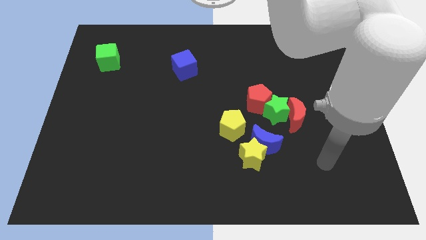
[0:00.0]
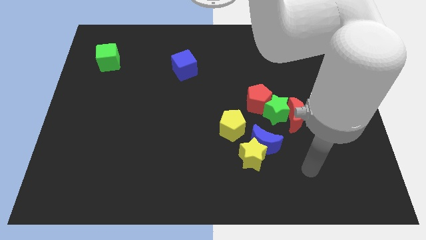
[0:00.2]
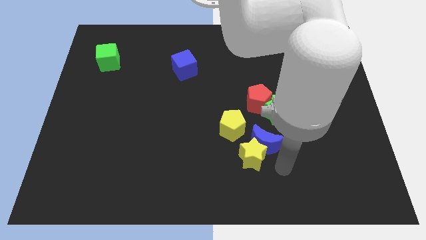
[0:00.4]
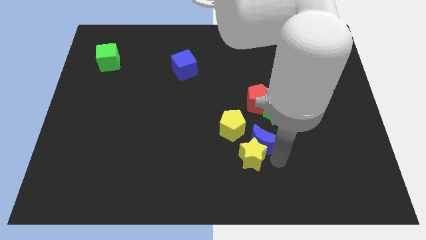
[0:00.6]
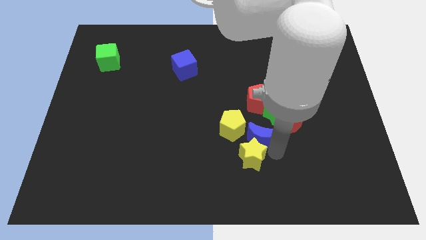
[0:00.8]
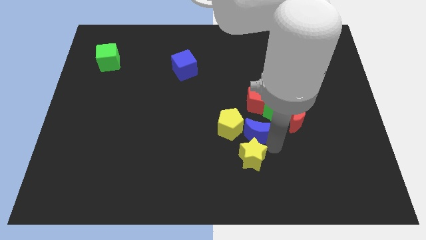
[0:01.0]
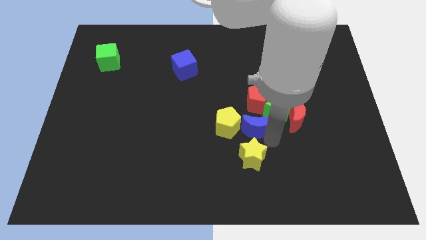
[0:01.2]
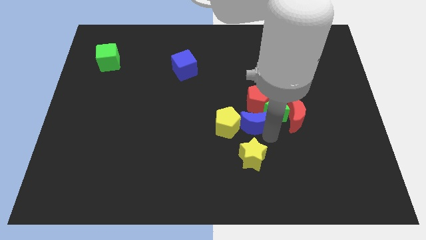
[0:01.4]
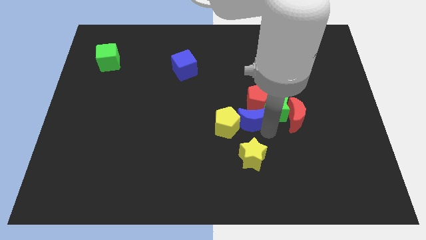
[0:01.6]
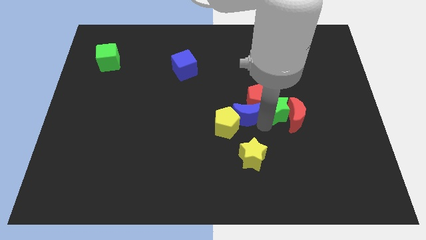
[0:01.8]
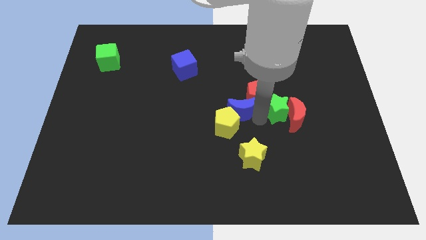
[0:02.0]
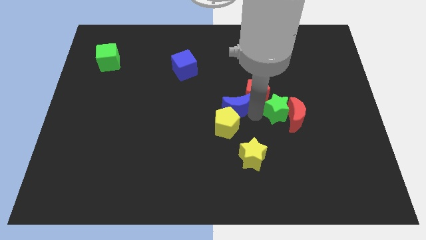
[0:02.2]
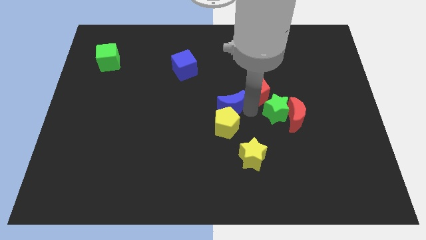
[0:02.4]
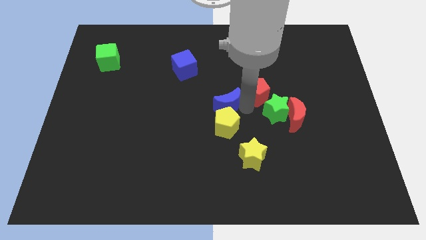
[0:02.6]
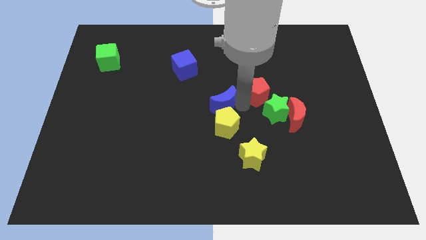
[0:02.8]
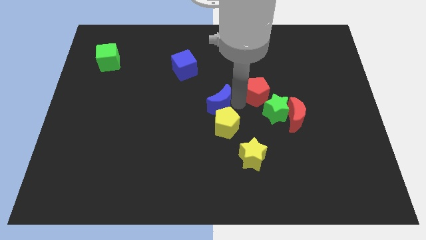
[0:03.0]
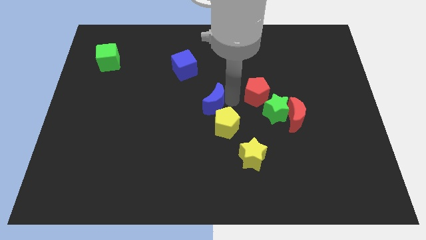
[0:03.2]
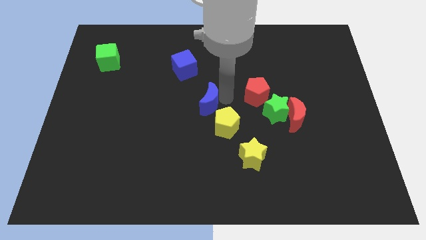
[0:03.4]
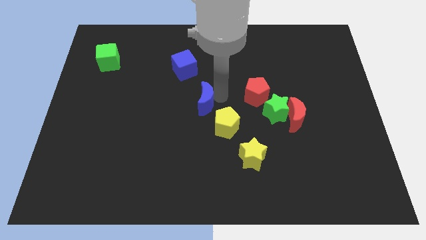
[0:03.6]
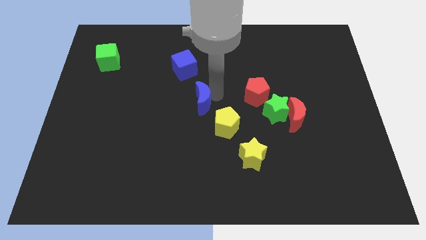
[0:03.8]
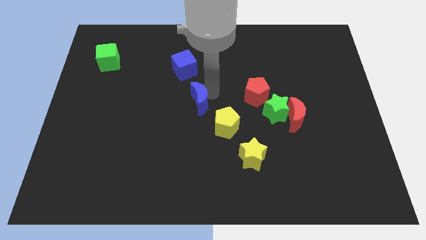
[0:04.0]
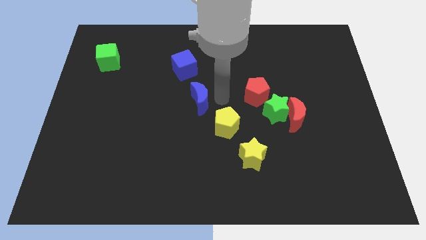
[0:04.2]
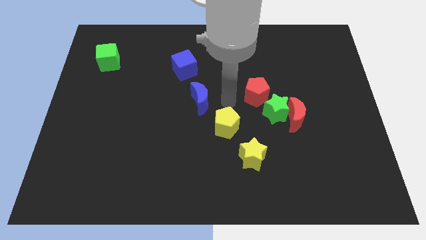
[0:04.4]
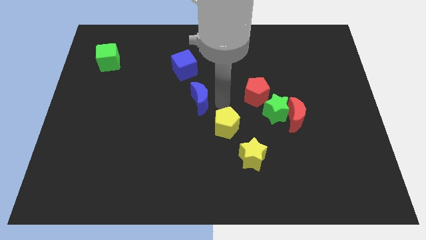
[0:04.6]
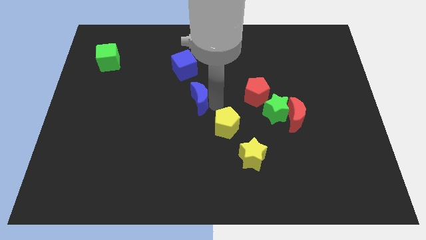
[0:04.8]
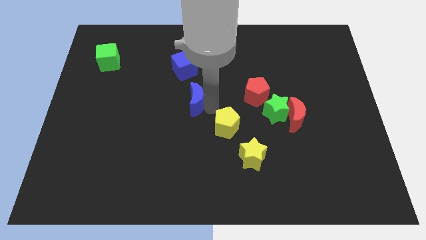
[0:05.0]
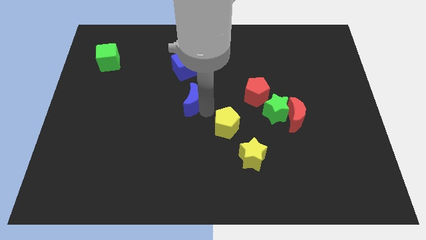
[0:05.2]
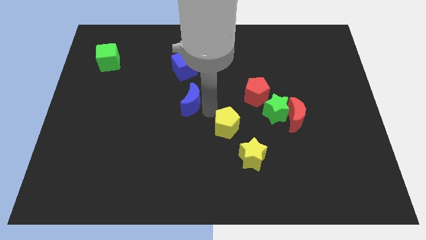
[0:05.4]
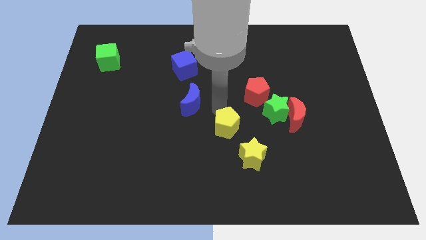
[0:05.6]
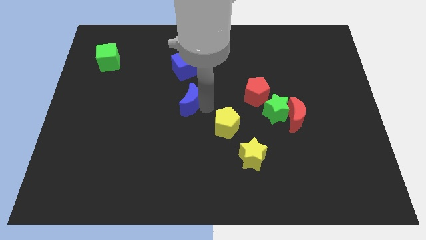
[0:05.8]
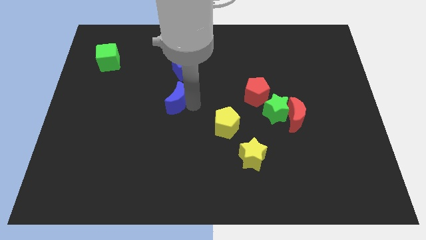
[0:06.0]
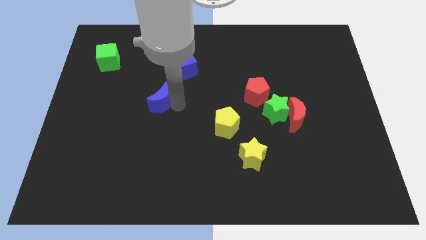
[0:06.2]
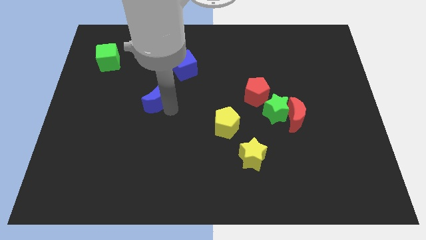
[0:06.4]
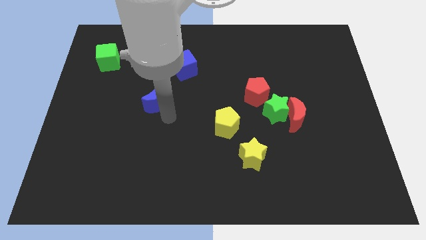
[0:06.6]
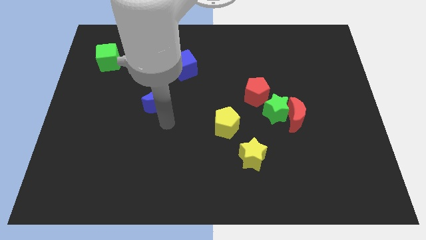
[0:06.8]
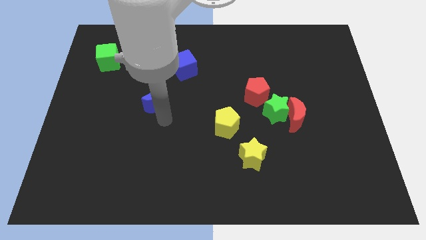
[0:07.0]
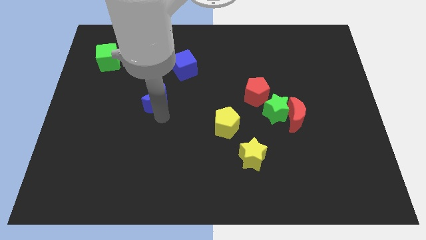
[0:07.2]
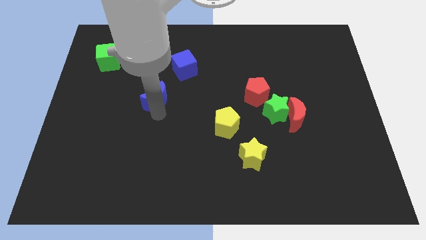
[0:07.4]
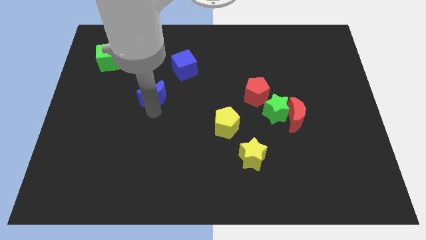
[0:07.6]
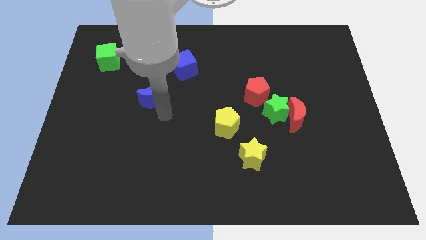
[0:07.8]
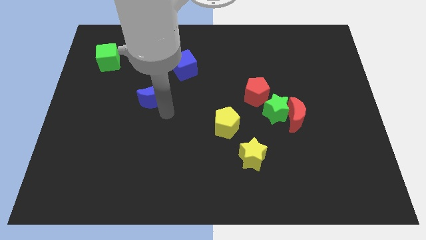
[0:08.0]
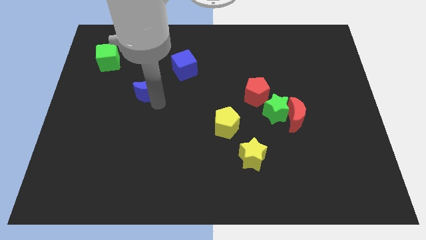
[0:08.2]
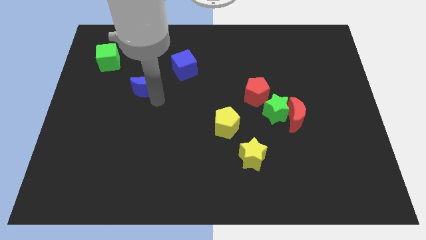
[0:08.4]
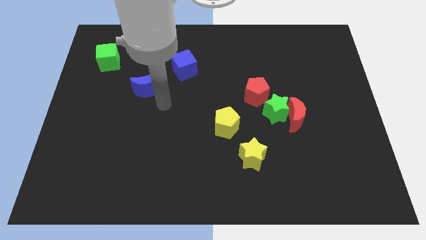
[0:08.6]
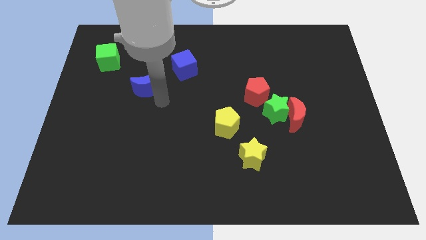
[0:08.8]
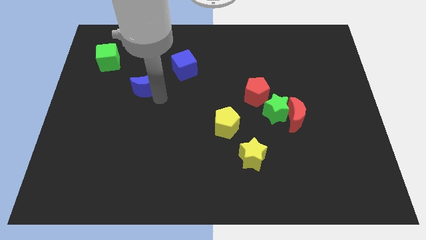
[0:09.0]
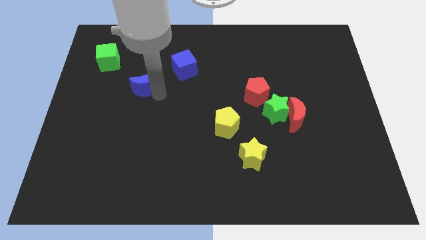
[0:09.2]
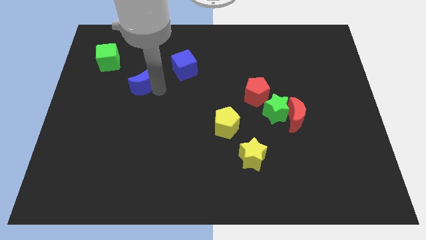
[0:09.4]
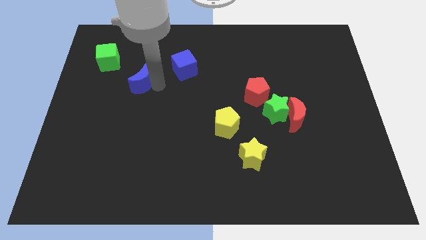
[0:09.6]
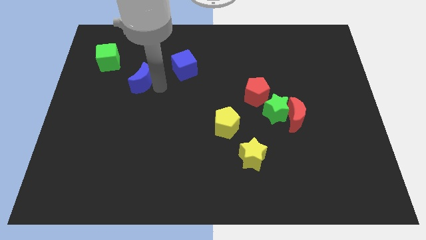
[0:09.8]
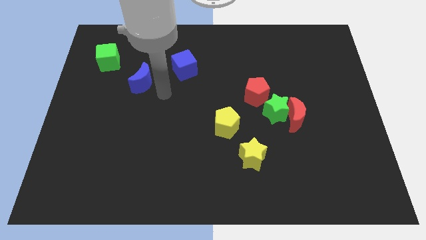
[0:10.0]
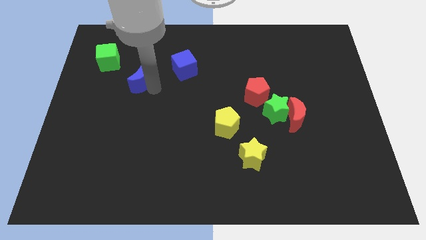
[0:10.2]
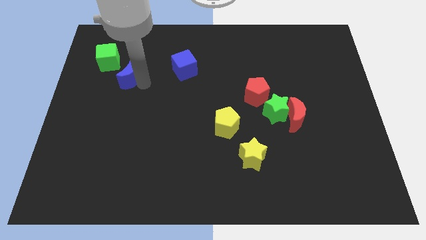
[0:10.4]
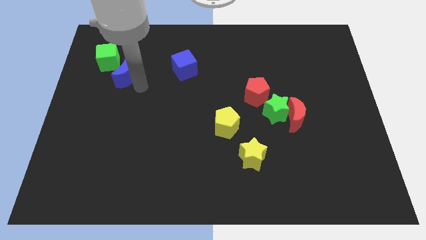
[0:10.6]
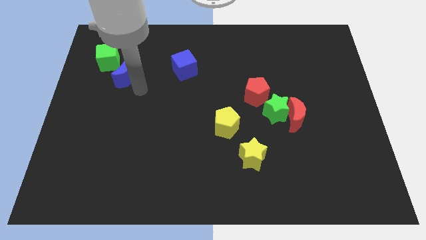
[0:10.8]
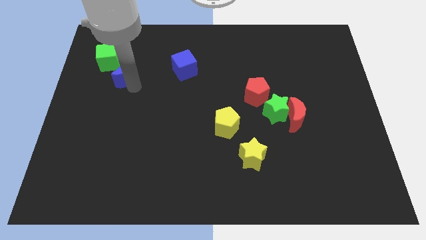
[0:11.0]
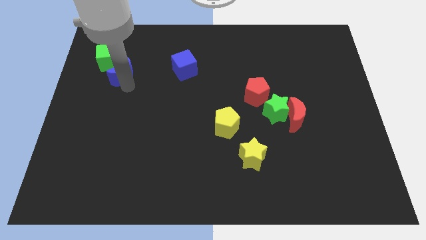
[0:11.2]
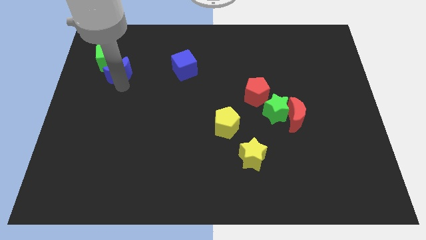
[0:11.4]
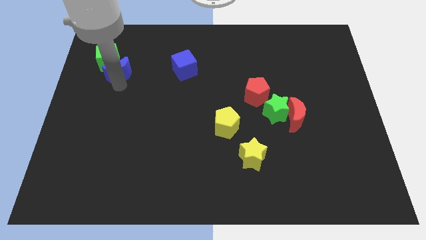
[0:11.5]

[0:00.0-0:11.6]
push the blue moon towards the green cube

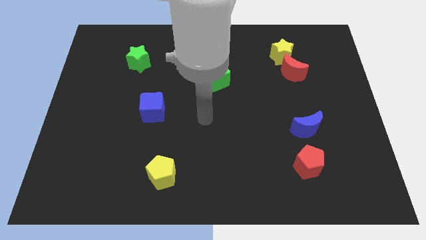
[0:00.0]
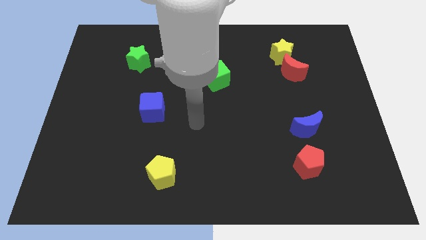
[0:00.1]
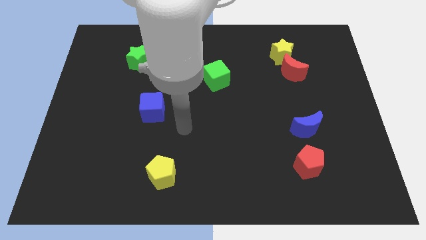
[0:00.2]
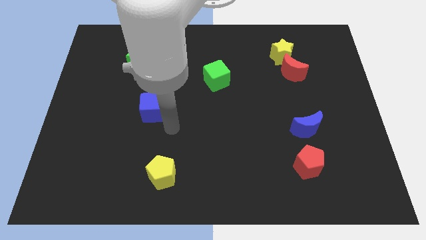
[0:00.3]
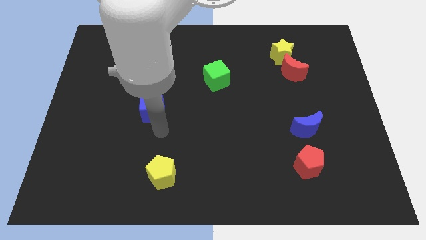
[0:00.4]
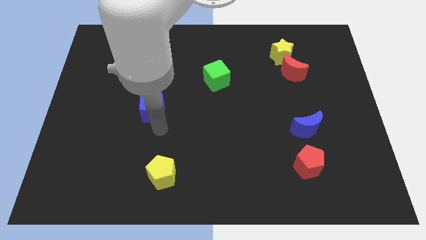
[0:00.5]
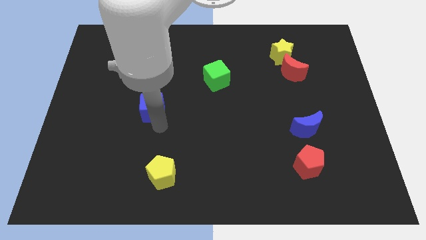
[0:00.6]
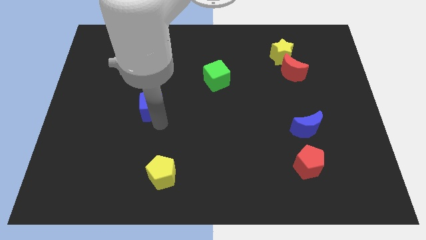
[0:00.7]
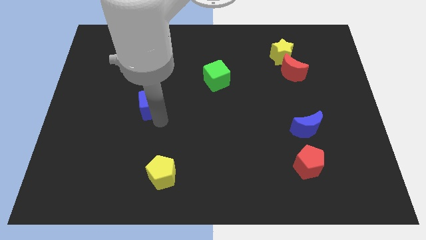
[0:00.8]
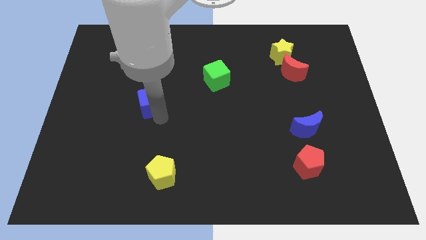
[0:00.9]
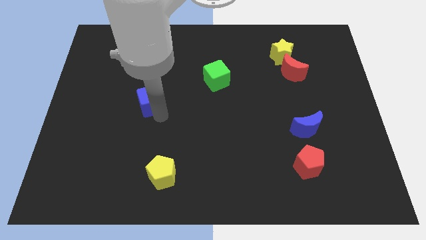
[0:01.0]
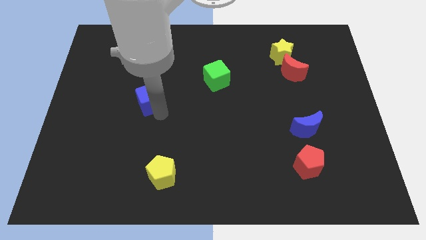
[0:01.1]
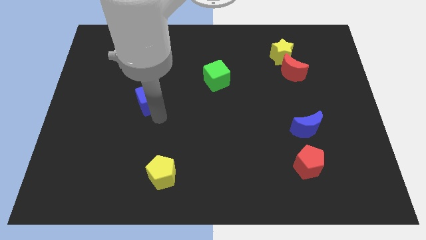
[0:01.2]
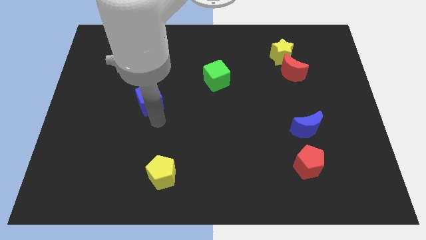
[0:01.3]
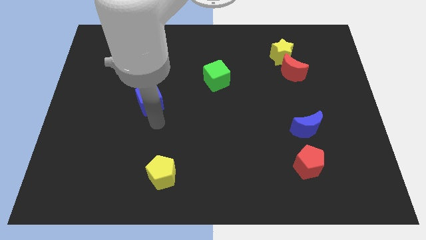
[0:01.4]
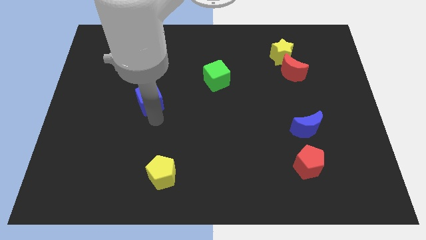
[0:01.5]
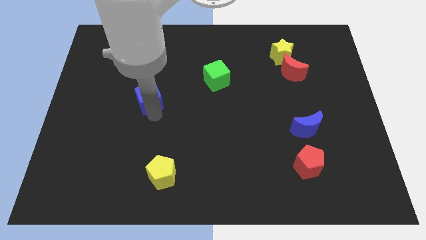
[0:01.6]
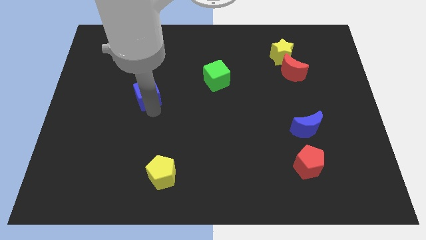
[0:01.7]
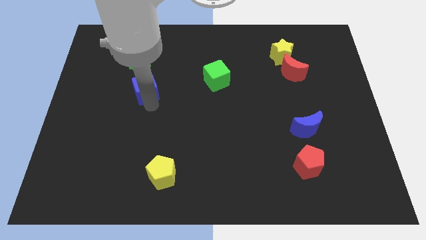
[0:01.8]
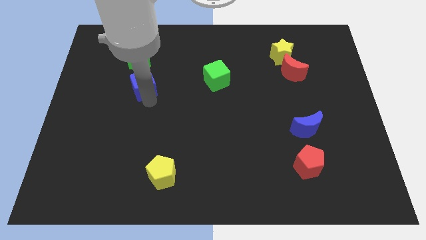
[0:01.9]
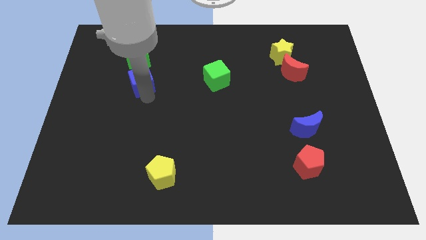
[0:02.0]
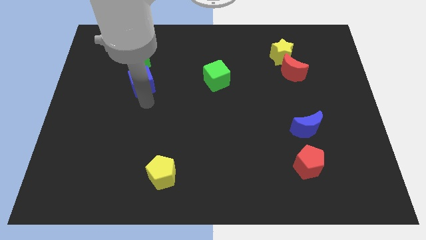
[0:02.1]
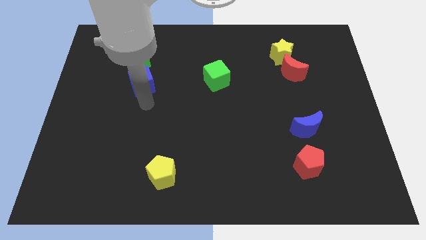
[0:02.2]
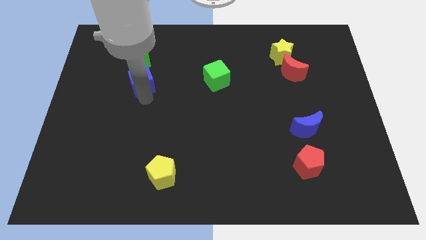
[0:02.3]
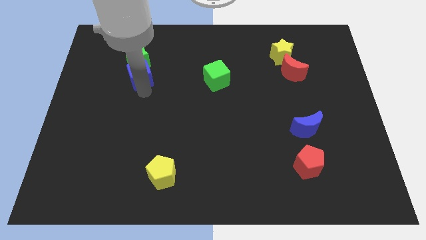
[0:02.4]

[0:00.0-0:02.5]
move the blue cube next to the green star
